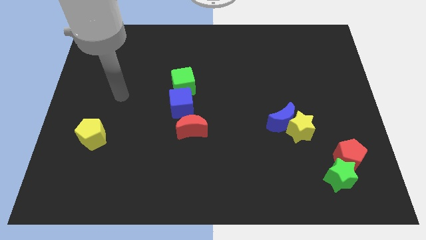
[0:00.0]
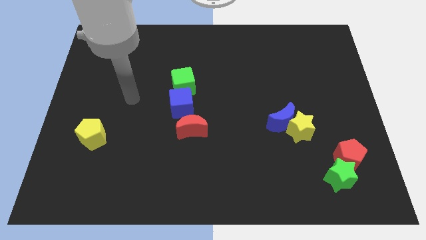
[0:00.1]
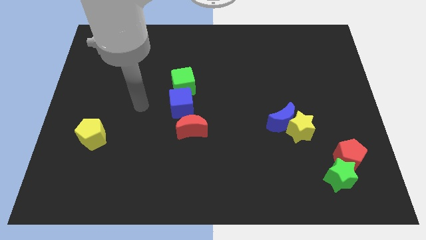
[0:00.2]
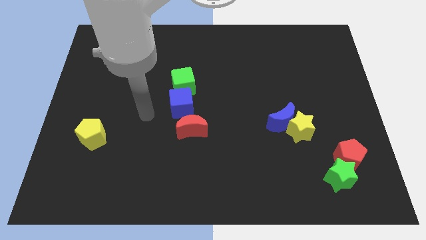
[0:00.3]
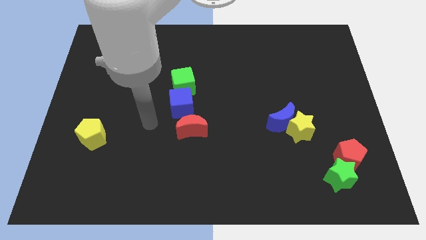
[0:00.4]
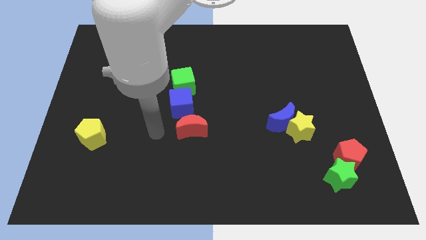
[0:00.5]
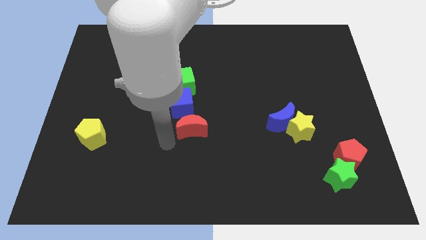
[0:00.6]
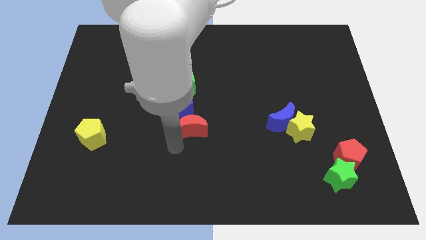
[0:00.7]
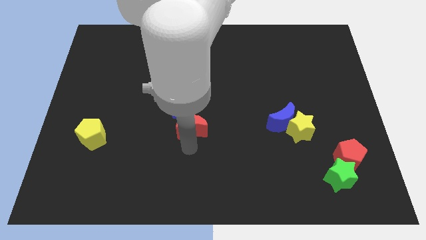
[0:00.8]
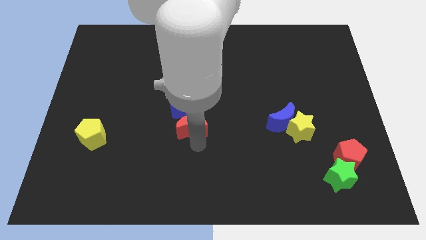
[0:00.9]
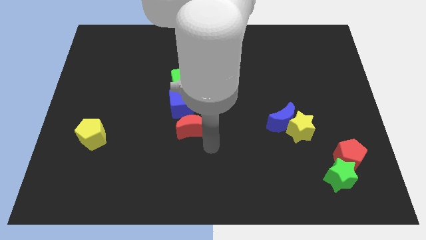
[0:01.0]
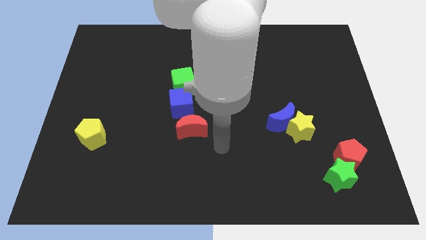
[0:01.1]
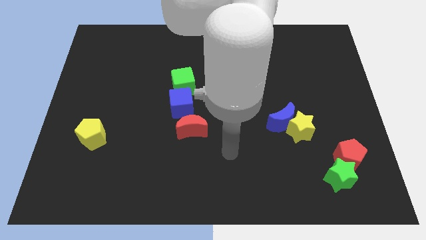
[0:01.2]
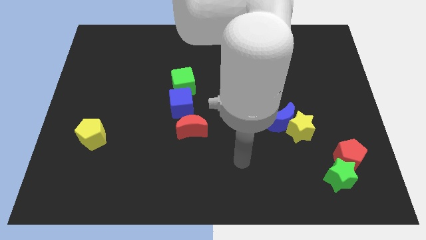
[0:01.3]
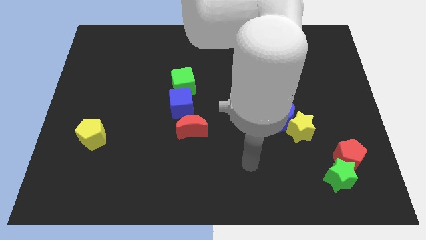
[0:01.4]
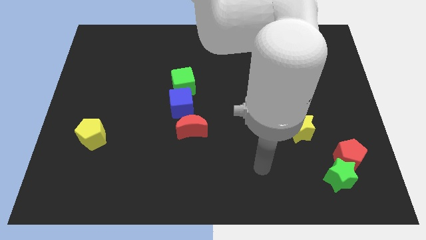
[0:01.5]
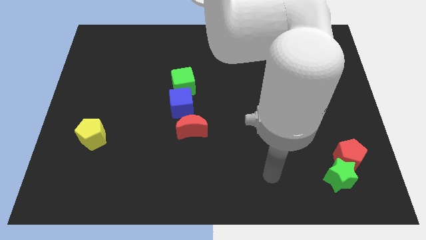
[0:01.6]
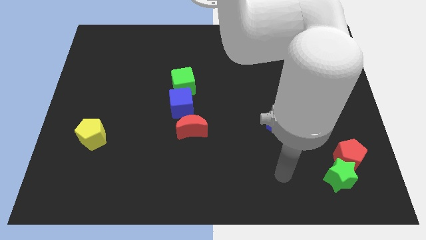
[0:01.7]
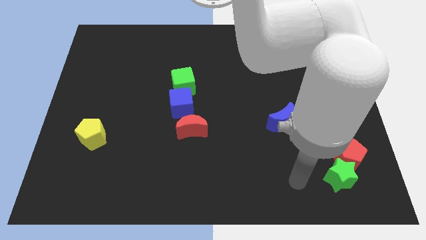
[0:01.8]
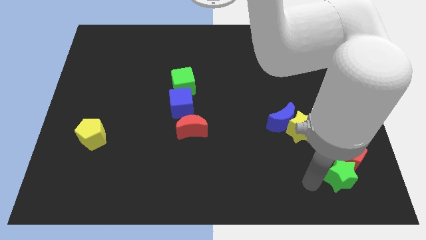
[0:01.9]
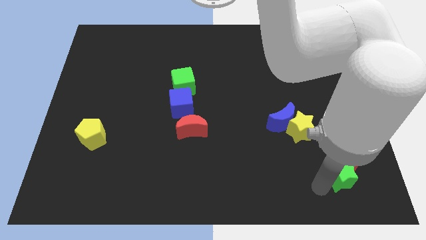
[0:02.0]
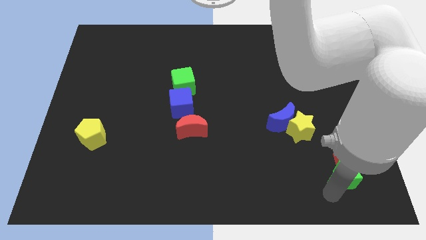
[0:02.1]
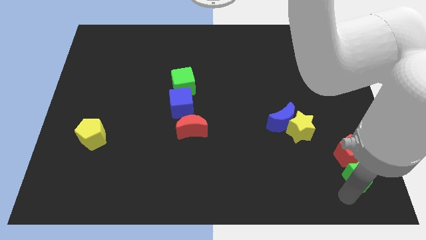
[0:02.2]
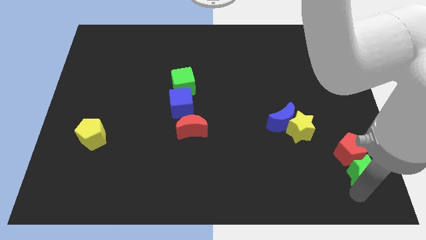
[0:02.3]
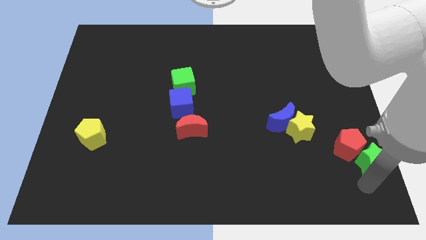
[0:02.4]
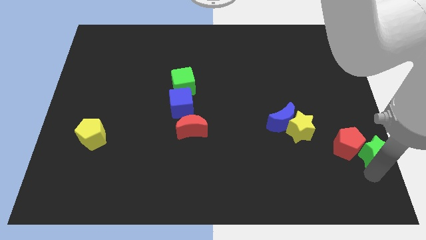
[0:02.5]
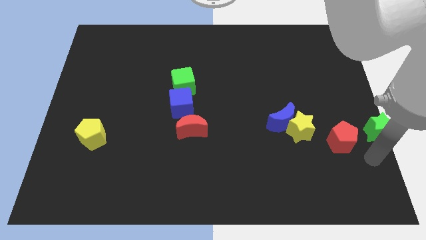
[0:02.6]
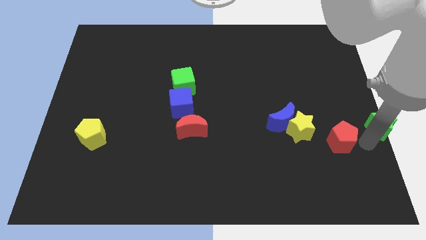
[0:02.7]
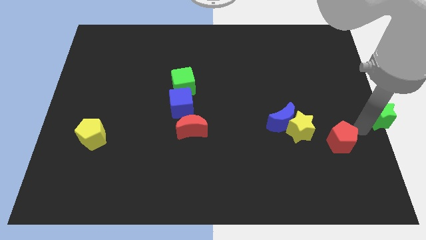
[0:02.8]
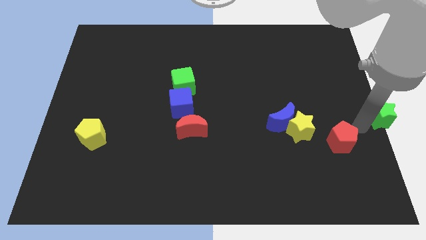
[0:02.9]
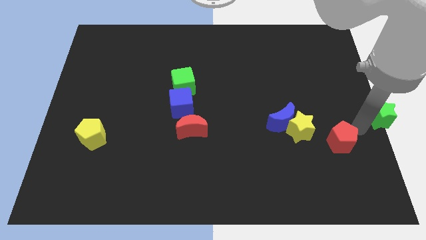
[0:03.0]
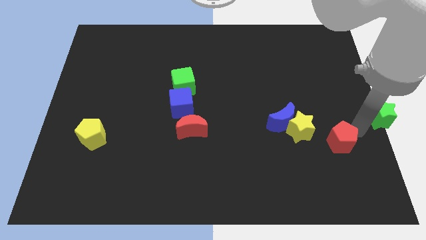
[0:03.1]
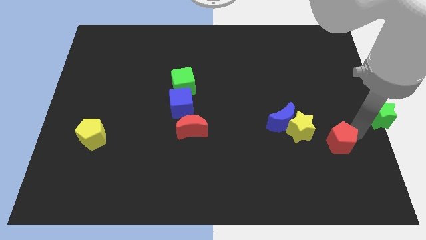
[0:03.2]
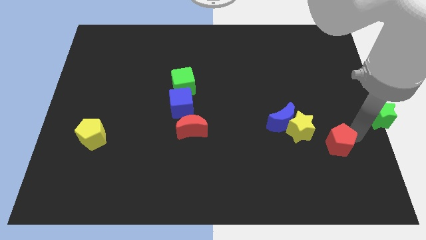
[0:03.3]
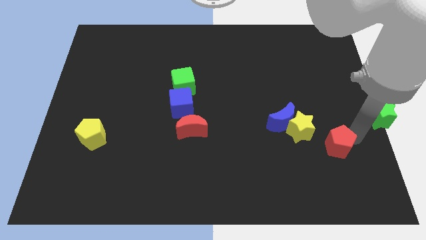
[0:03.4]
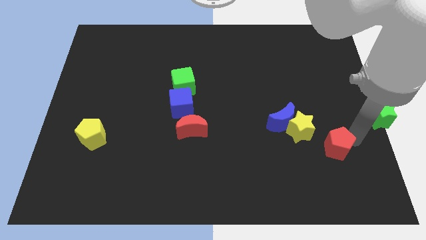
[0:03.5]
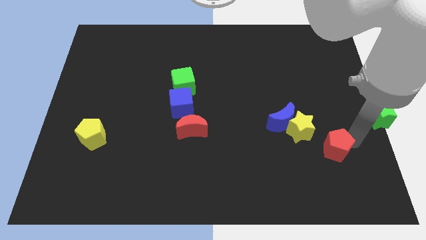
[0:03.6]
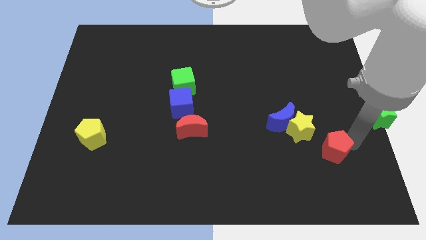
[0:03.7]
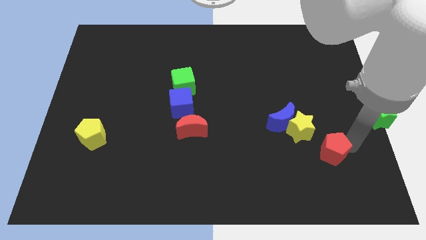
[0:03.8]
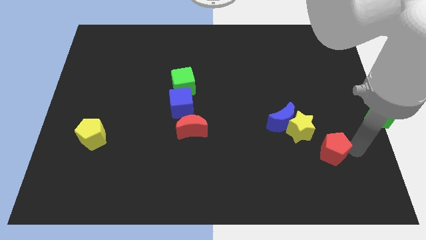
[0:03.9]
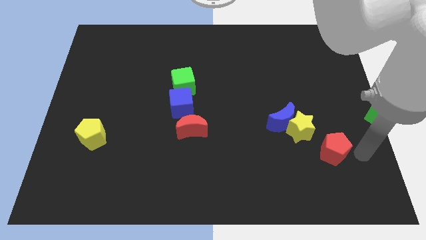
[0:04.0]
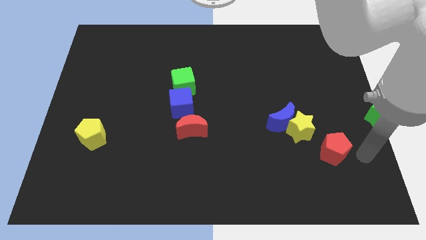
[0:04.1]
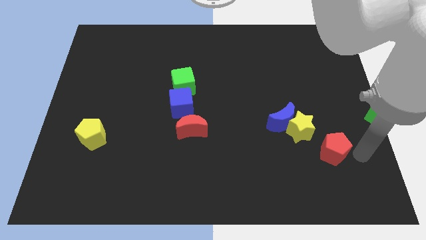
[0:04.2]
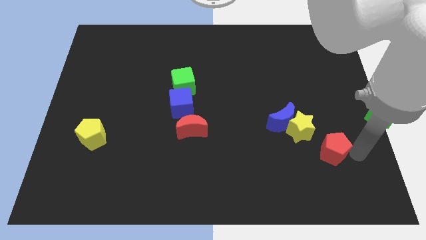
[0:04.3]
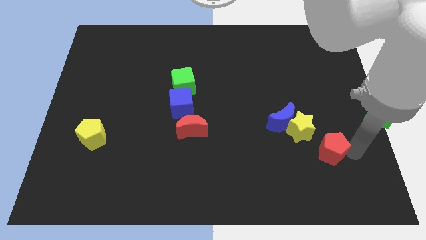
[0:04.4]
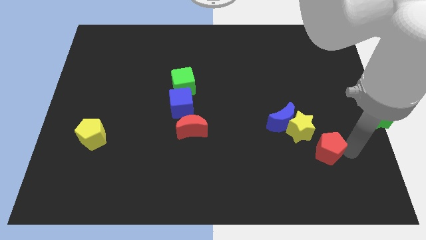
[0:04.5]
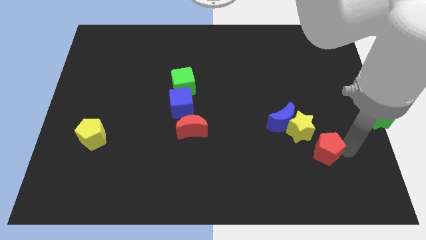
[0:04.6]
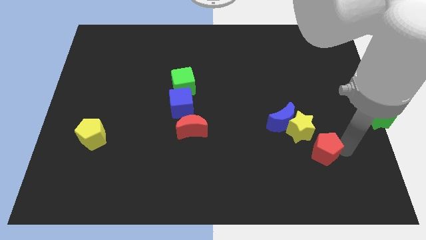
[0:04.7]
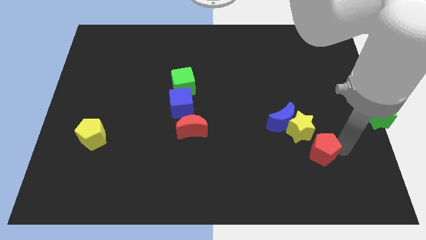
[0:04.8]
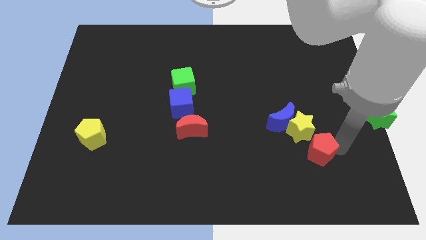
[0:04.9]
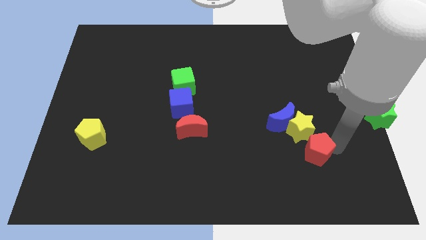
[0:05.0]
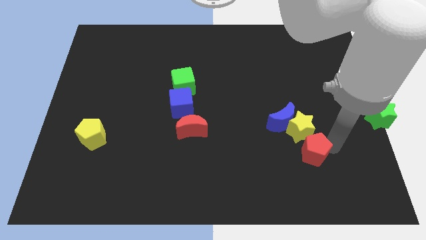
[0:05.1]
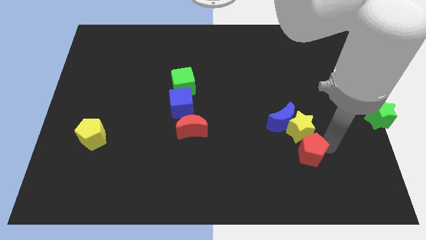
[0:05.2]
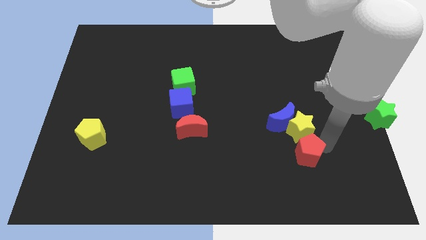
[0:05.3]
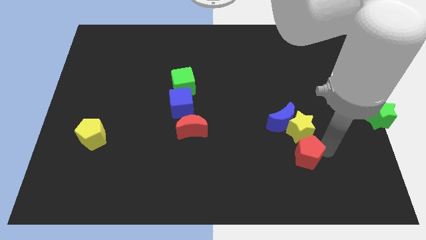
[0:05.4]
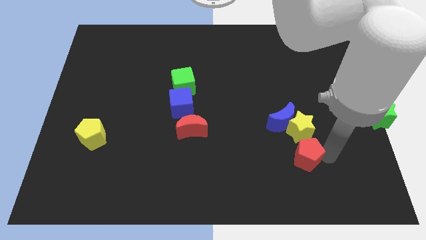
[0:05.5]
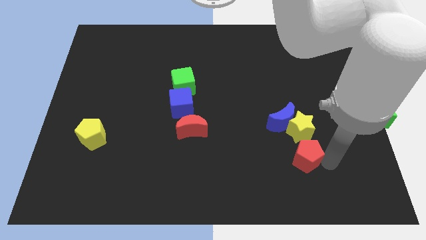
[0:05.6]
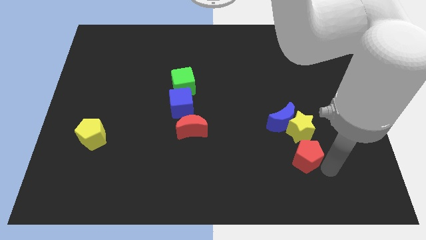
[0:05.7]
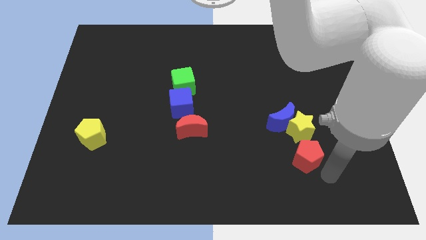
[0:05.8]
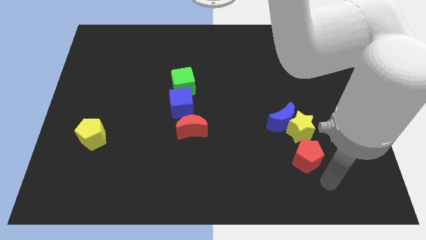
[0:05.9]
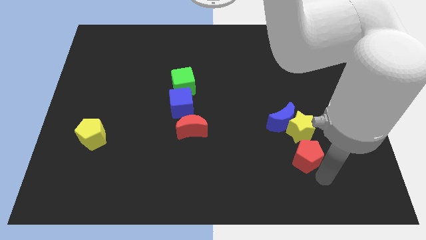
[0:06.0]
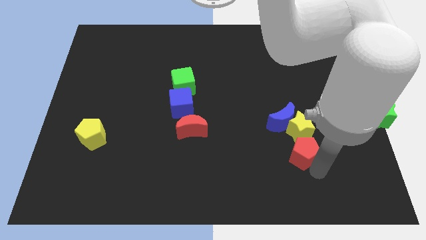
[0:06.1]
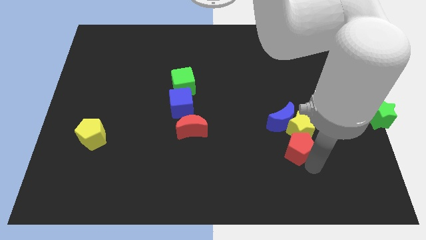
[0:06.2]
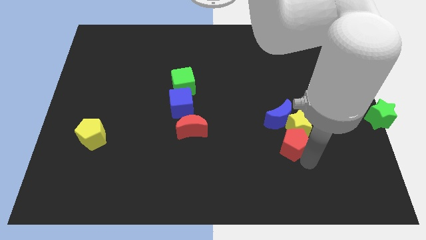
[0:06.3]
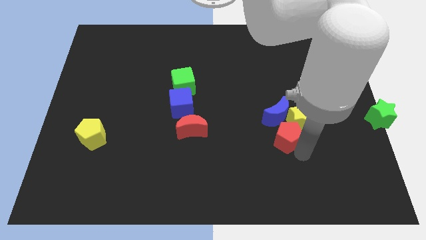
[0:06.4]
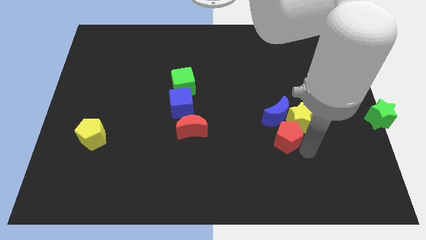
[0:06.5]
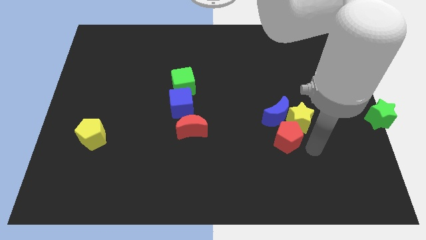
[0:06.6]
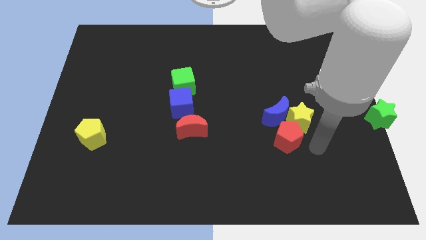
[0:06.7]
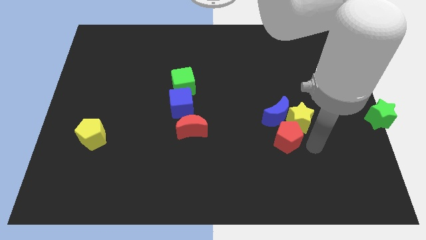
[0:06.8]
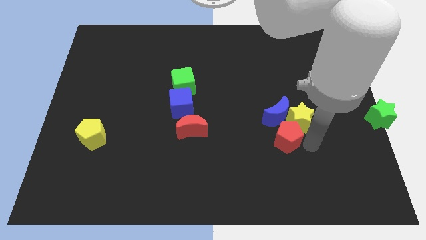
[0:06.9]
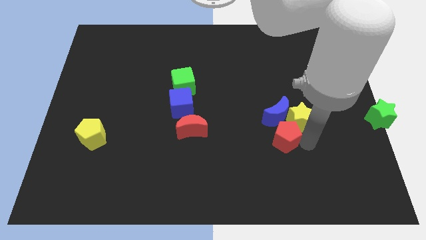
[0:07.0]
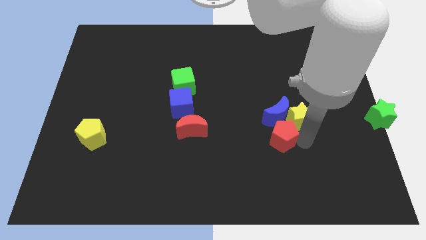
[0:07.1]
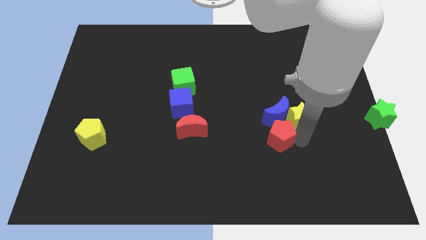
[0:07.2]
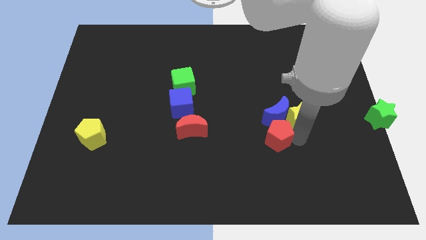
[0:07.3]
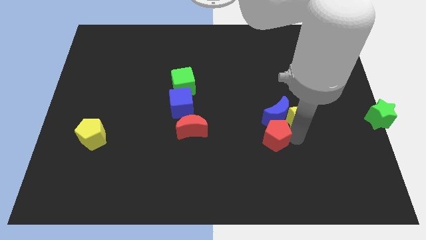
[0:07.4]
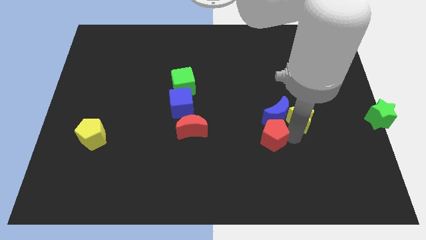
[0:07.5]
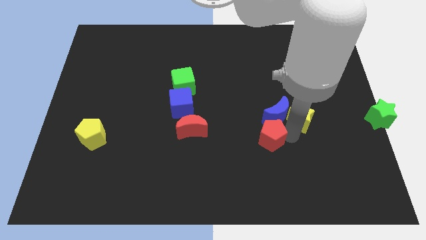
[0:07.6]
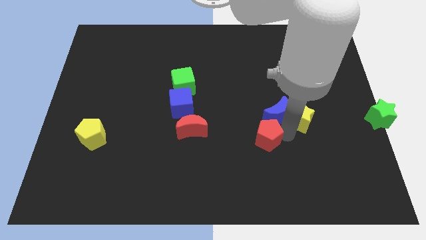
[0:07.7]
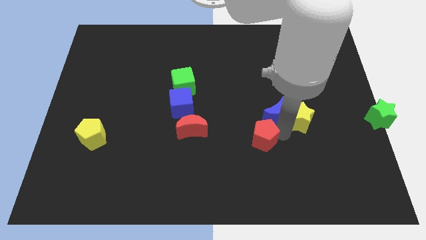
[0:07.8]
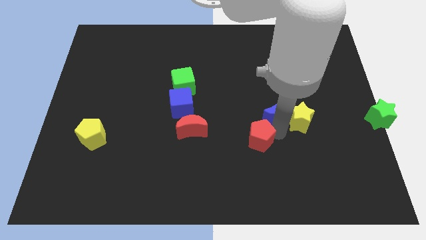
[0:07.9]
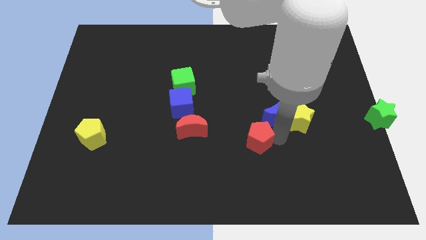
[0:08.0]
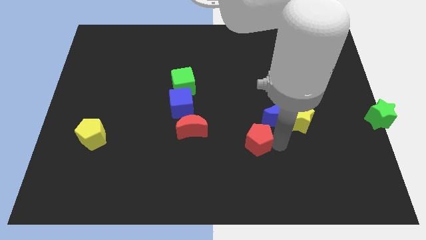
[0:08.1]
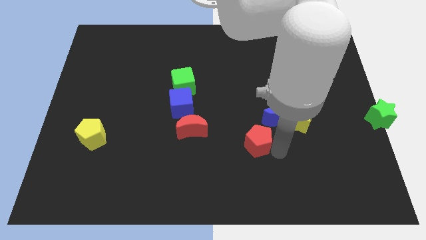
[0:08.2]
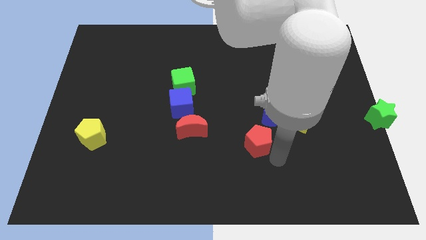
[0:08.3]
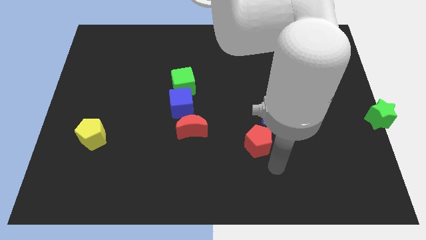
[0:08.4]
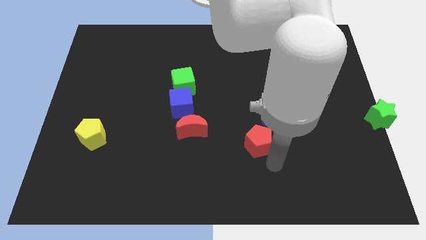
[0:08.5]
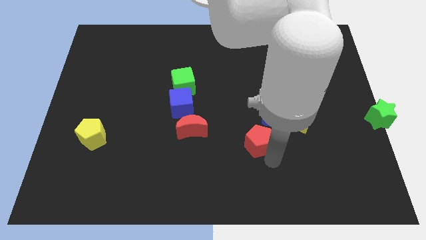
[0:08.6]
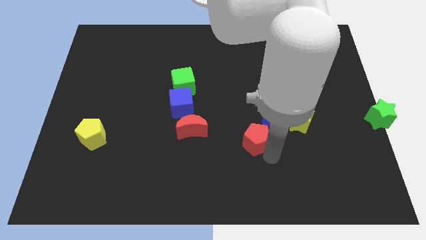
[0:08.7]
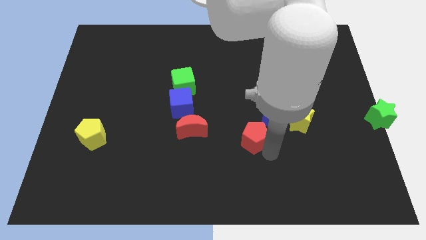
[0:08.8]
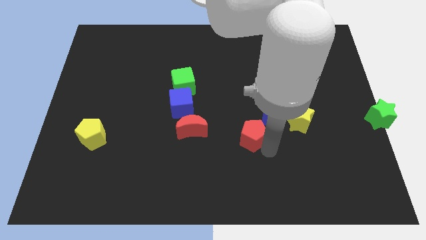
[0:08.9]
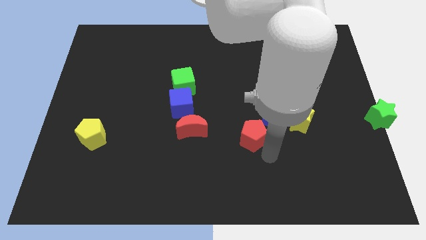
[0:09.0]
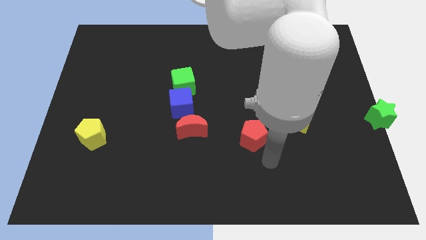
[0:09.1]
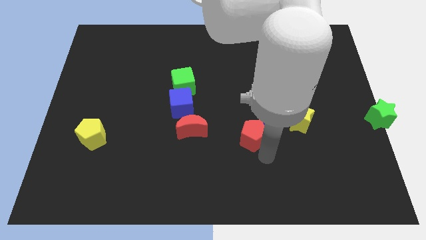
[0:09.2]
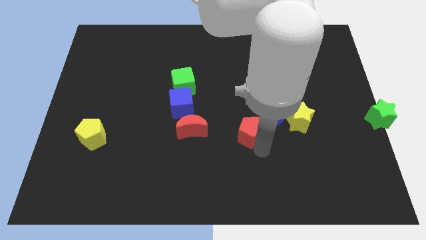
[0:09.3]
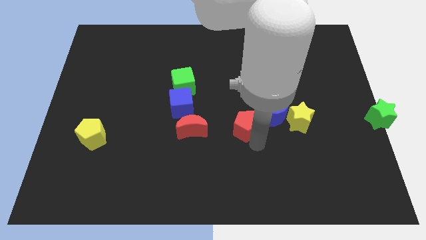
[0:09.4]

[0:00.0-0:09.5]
put the red pentagon to the center of the board
